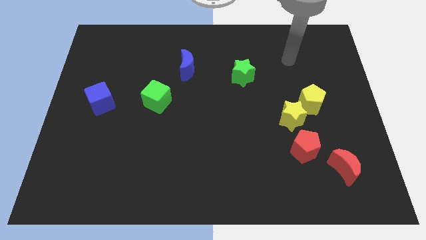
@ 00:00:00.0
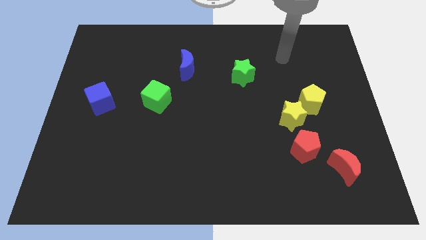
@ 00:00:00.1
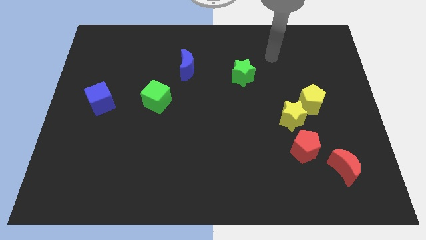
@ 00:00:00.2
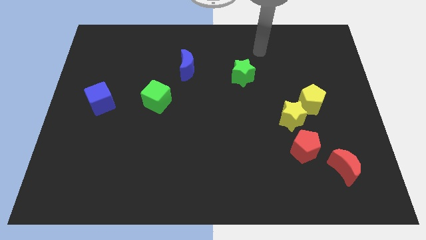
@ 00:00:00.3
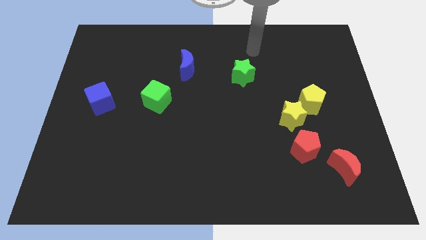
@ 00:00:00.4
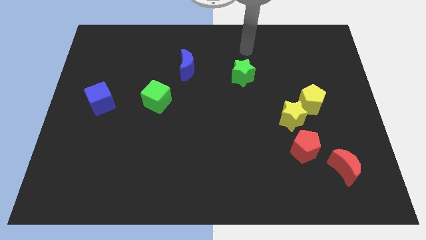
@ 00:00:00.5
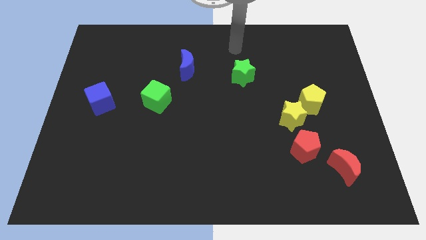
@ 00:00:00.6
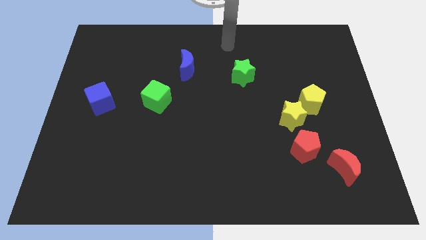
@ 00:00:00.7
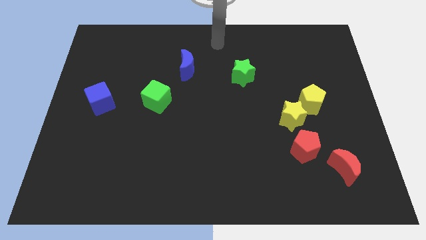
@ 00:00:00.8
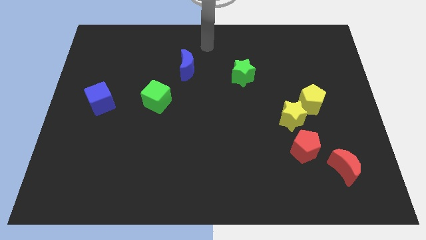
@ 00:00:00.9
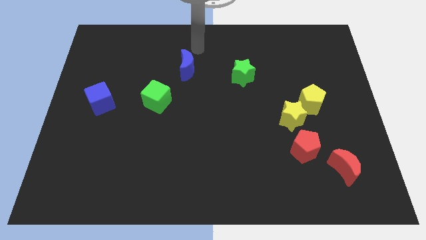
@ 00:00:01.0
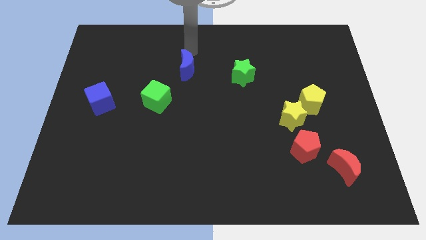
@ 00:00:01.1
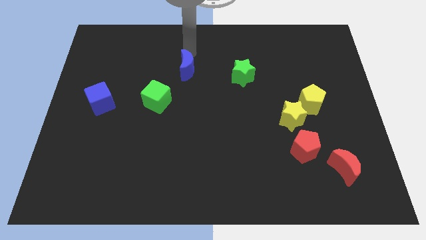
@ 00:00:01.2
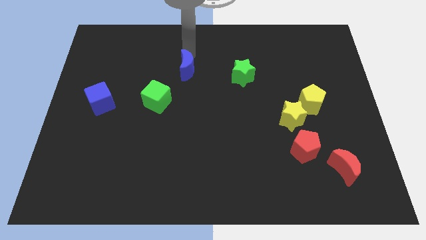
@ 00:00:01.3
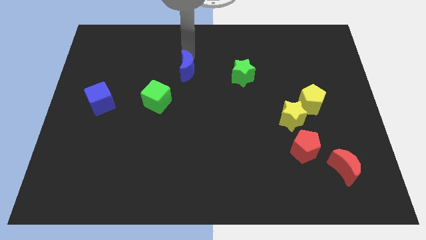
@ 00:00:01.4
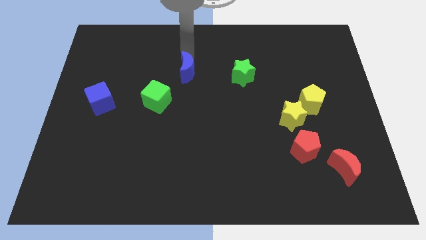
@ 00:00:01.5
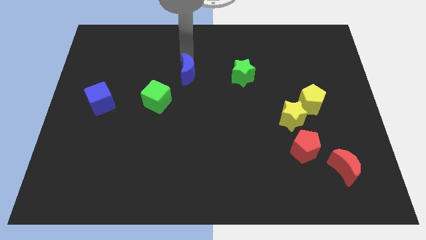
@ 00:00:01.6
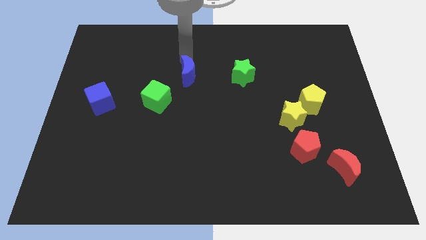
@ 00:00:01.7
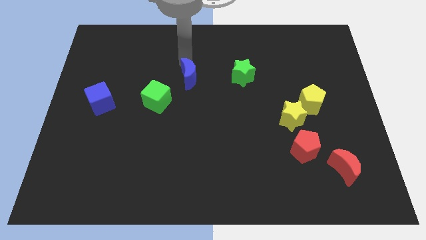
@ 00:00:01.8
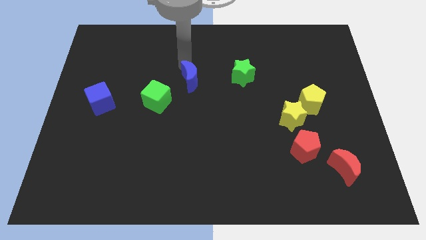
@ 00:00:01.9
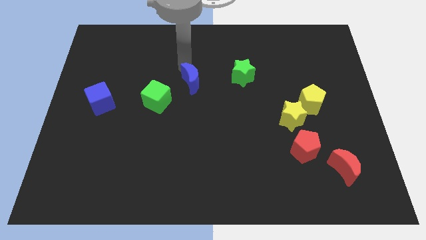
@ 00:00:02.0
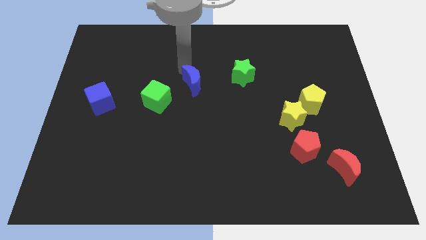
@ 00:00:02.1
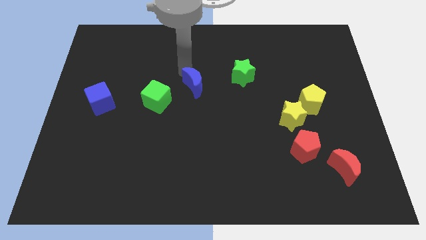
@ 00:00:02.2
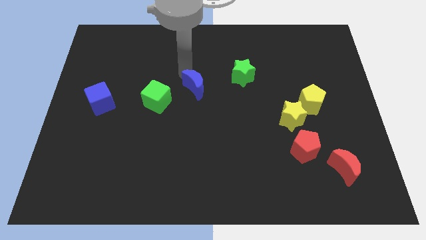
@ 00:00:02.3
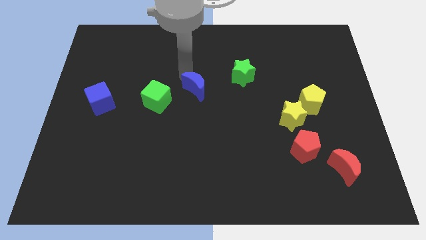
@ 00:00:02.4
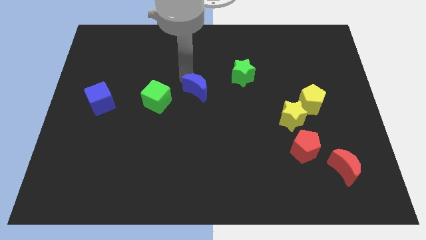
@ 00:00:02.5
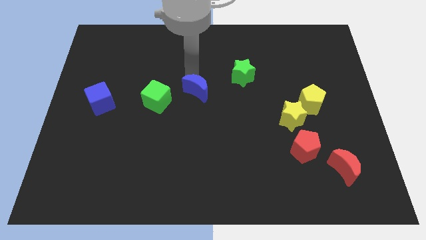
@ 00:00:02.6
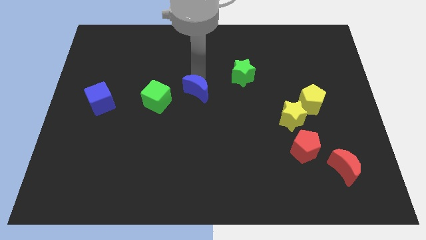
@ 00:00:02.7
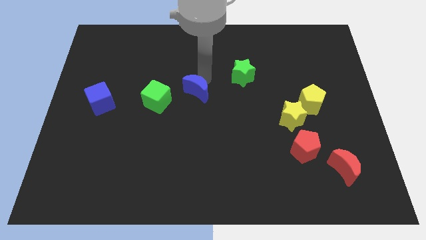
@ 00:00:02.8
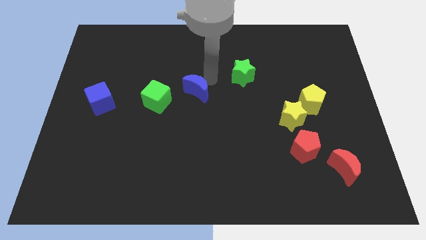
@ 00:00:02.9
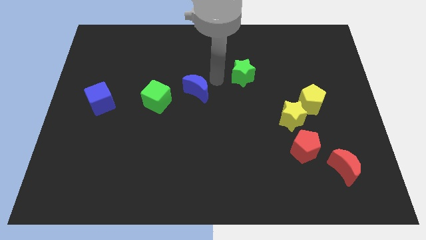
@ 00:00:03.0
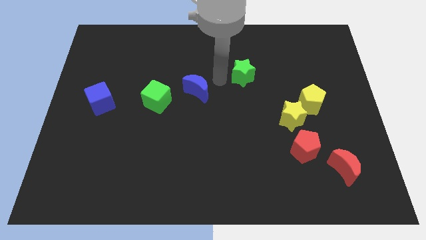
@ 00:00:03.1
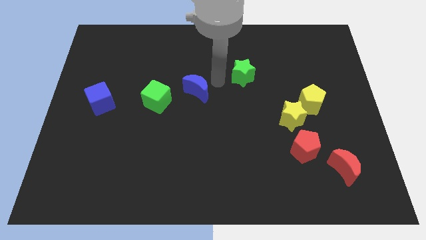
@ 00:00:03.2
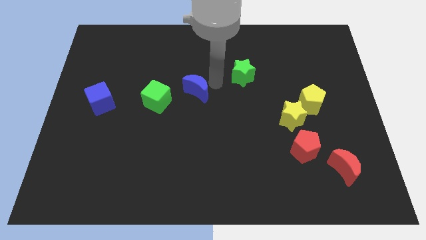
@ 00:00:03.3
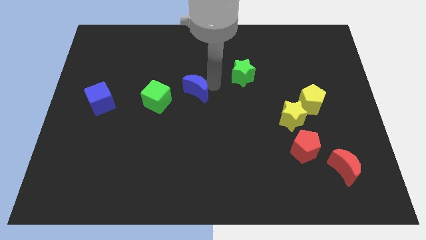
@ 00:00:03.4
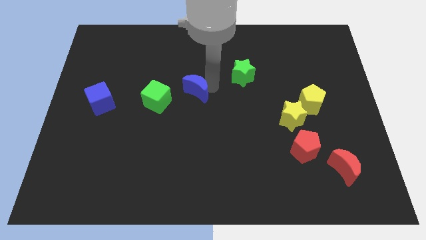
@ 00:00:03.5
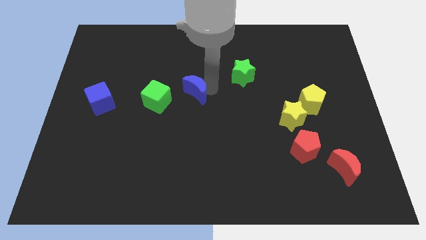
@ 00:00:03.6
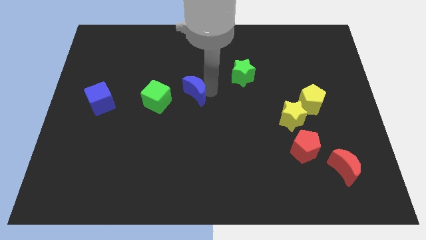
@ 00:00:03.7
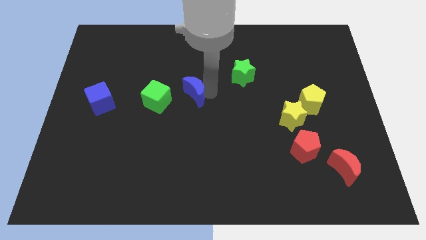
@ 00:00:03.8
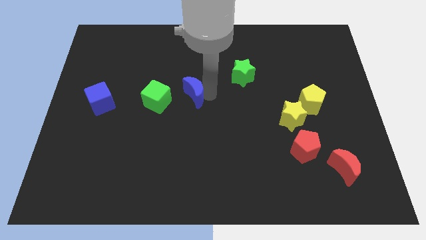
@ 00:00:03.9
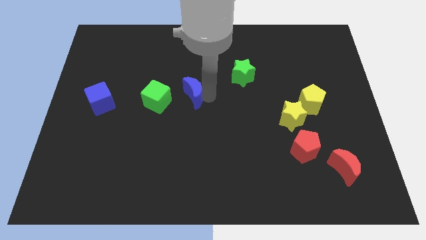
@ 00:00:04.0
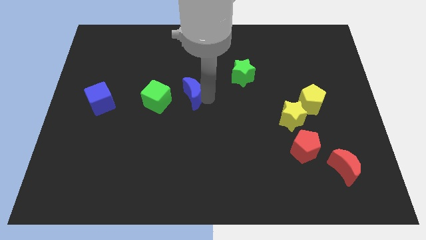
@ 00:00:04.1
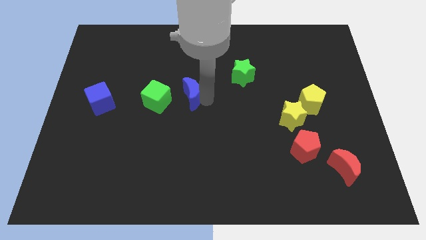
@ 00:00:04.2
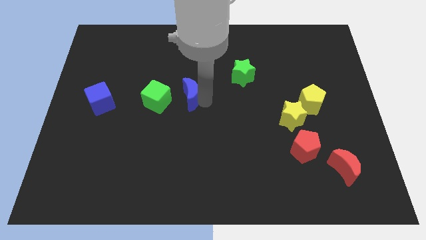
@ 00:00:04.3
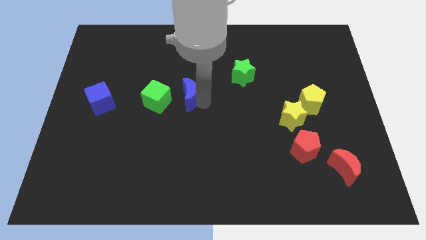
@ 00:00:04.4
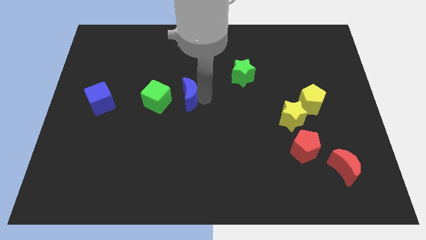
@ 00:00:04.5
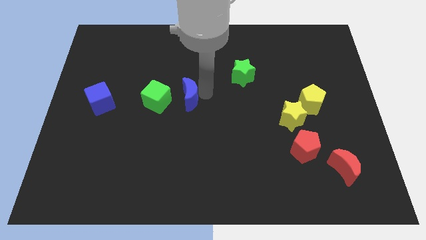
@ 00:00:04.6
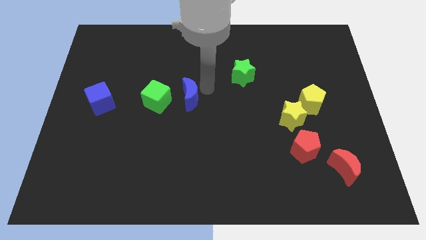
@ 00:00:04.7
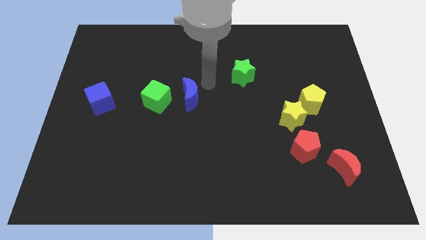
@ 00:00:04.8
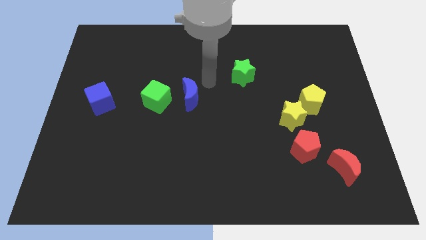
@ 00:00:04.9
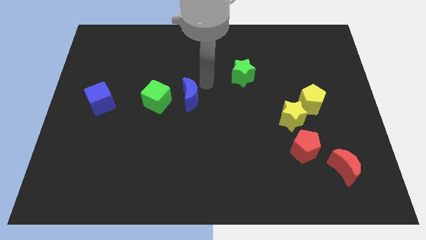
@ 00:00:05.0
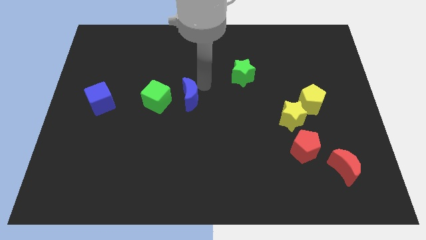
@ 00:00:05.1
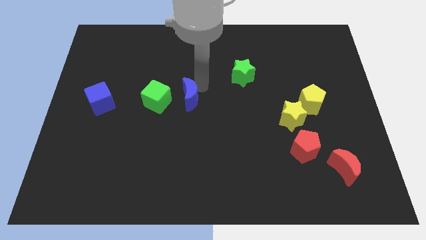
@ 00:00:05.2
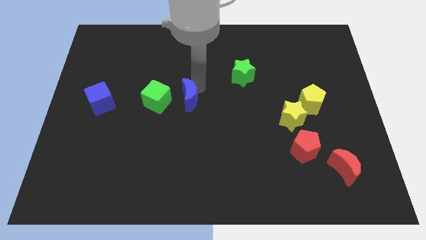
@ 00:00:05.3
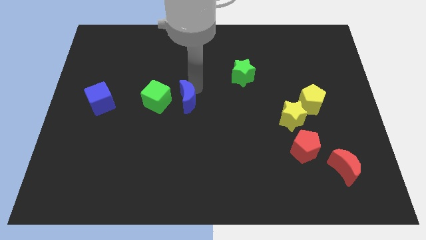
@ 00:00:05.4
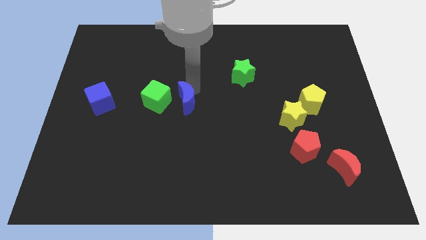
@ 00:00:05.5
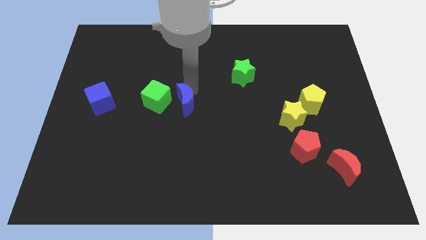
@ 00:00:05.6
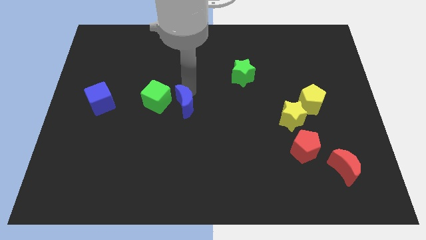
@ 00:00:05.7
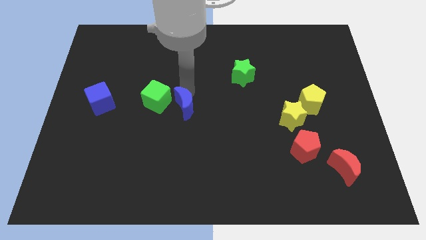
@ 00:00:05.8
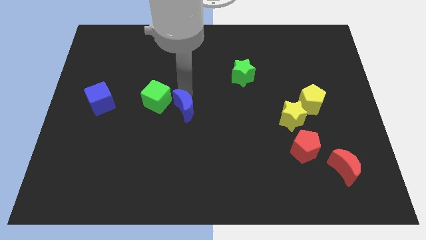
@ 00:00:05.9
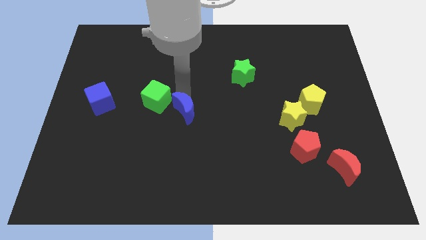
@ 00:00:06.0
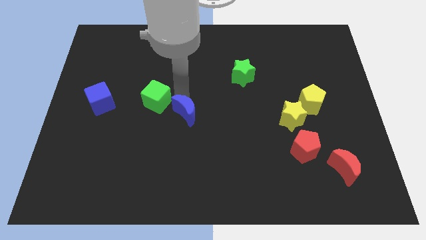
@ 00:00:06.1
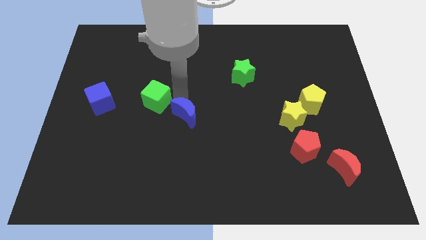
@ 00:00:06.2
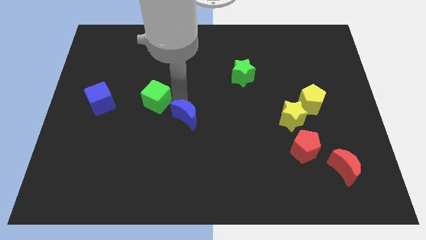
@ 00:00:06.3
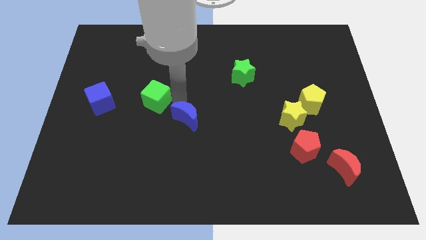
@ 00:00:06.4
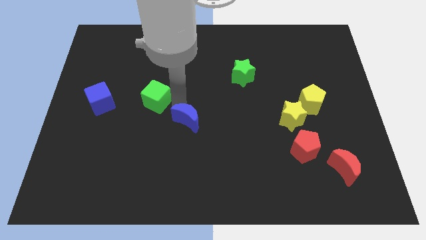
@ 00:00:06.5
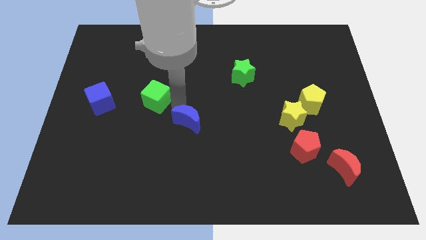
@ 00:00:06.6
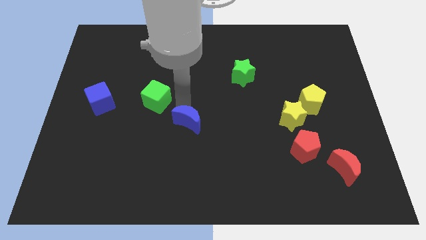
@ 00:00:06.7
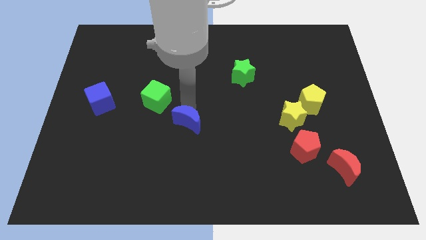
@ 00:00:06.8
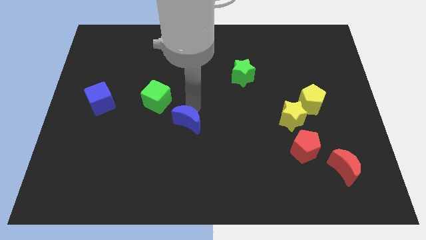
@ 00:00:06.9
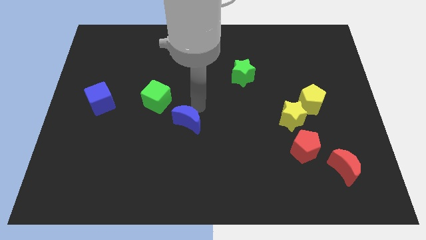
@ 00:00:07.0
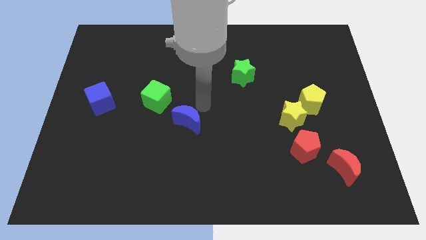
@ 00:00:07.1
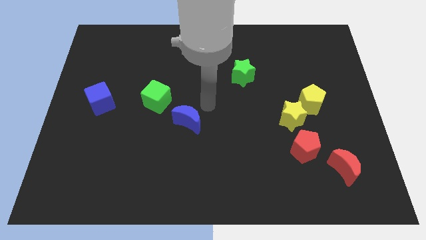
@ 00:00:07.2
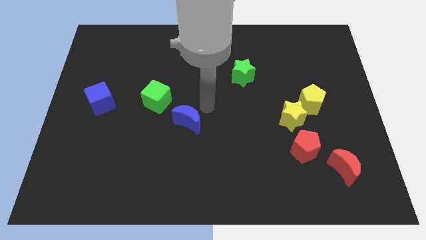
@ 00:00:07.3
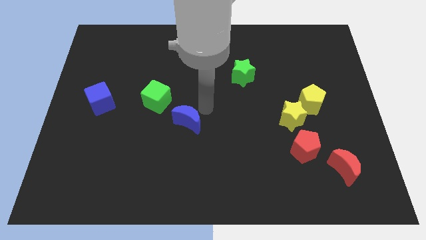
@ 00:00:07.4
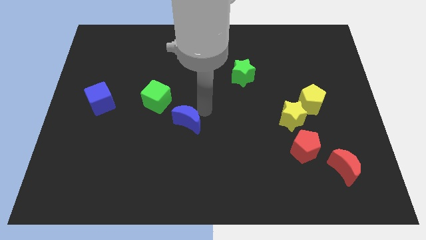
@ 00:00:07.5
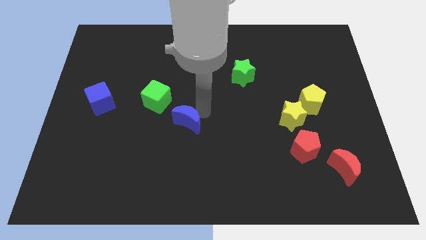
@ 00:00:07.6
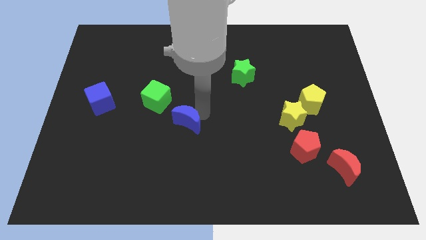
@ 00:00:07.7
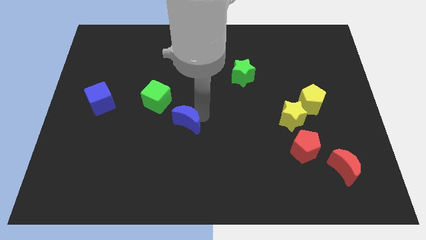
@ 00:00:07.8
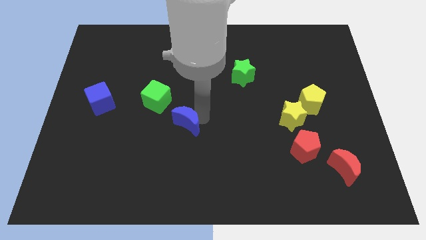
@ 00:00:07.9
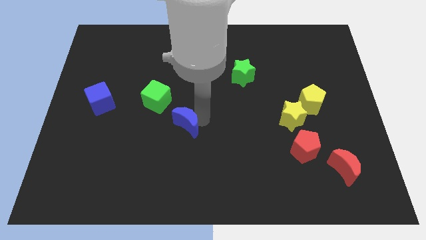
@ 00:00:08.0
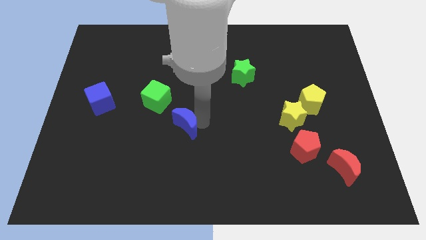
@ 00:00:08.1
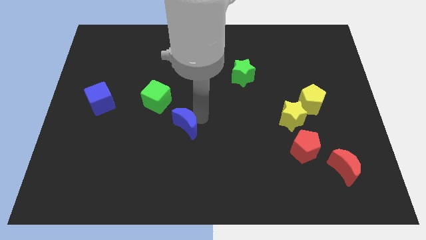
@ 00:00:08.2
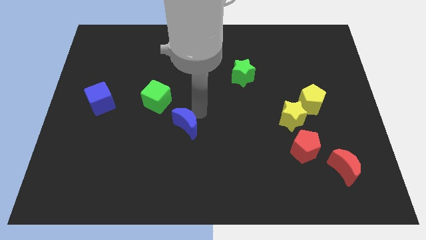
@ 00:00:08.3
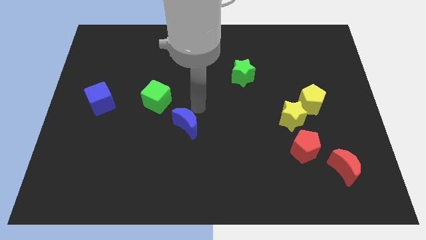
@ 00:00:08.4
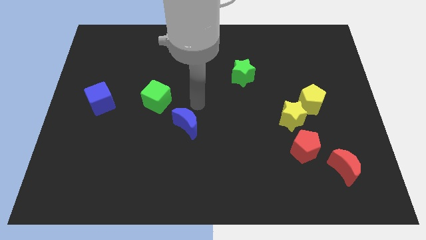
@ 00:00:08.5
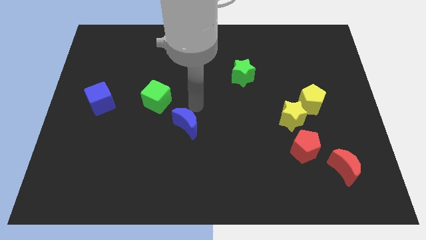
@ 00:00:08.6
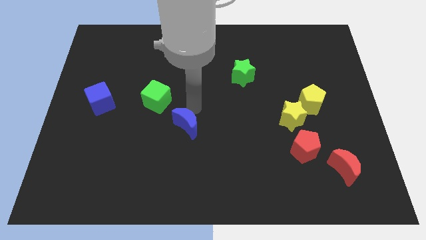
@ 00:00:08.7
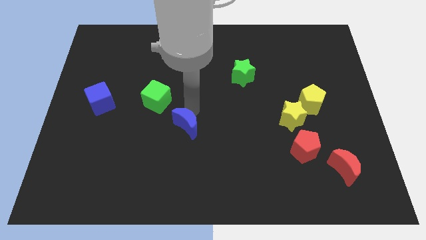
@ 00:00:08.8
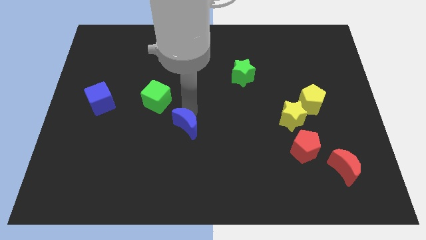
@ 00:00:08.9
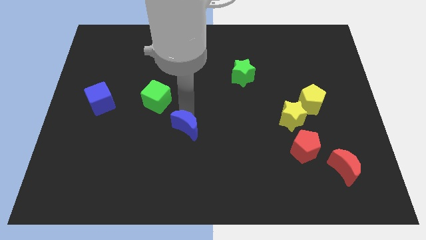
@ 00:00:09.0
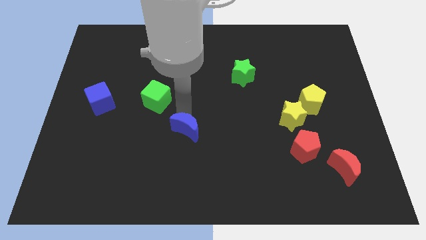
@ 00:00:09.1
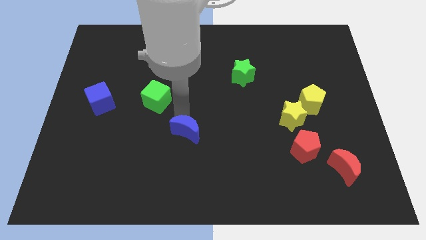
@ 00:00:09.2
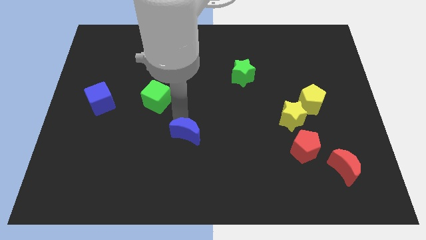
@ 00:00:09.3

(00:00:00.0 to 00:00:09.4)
move the blue moon down
